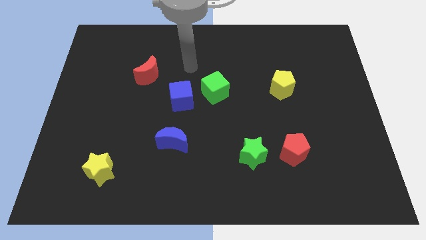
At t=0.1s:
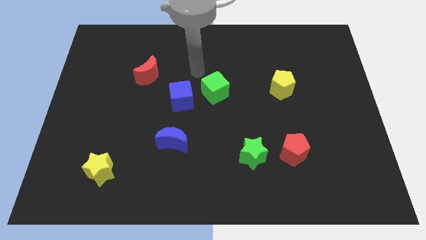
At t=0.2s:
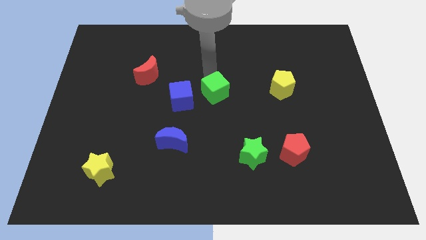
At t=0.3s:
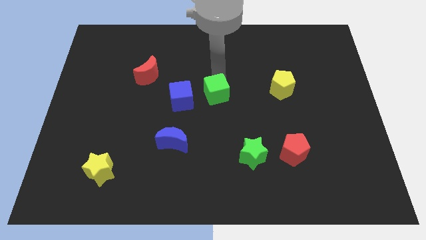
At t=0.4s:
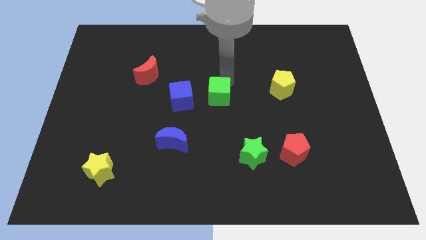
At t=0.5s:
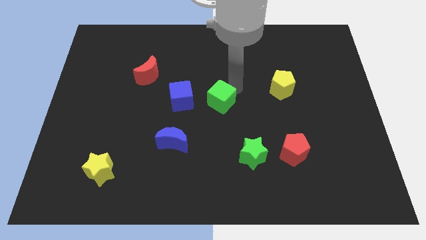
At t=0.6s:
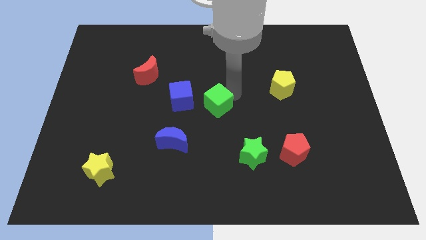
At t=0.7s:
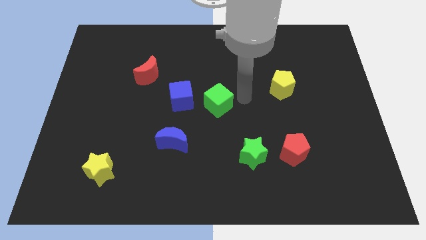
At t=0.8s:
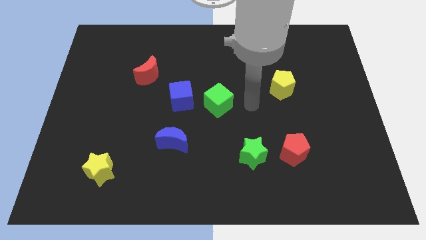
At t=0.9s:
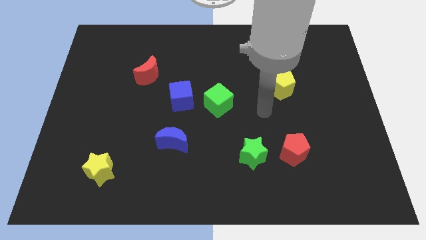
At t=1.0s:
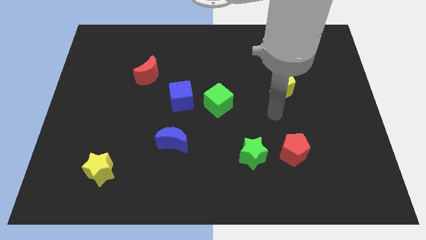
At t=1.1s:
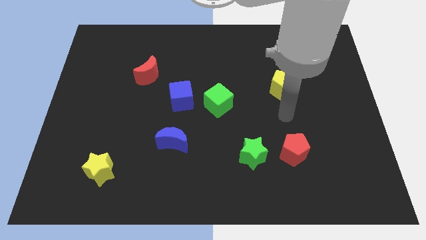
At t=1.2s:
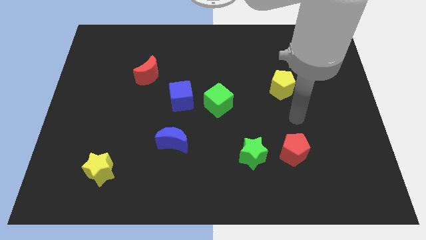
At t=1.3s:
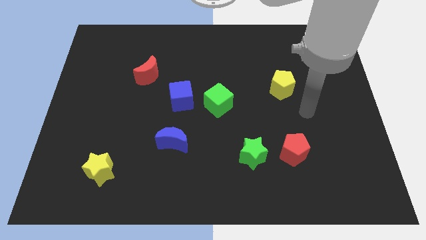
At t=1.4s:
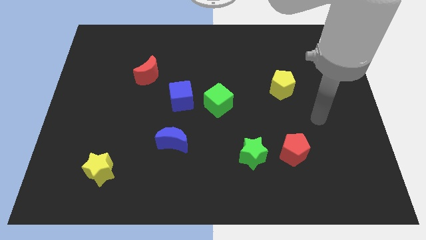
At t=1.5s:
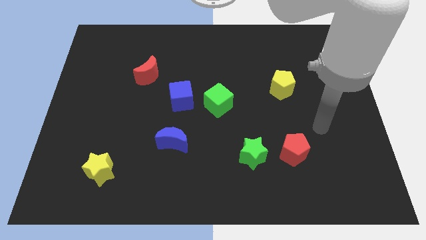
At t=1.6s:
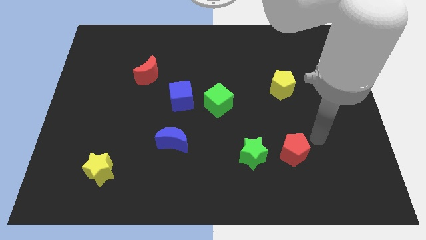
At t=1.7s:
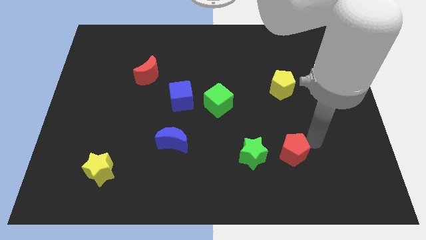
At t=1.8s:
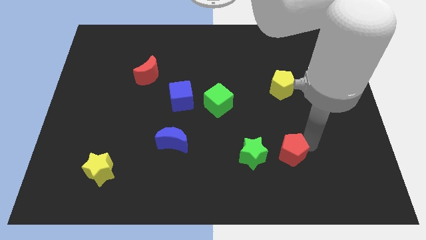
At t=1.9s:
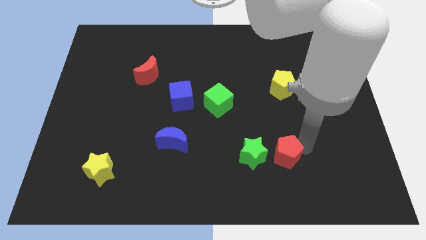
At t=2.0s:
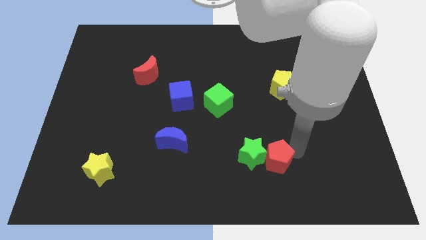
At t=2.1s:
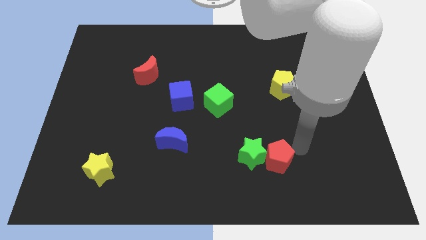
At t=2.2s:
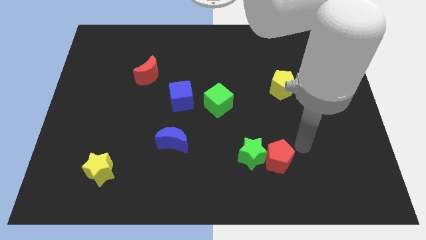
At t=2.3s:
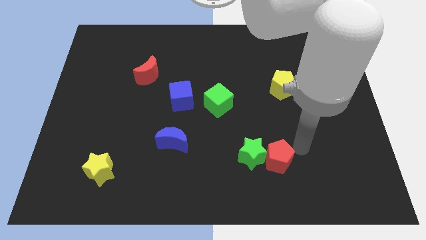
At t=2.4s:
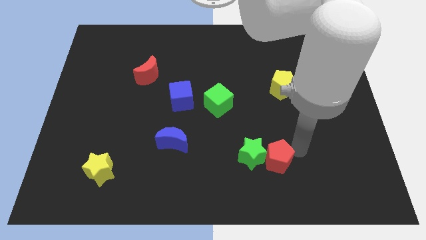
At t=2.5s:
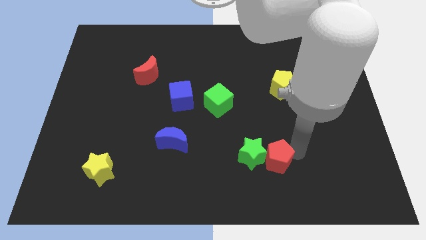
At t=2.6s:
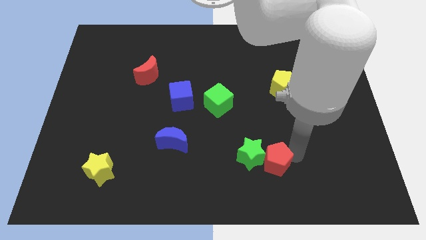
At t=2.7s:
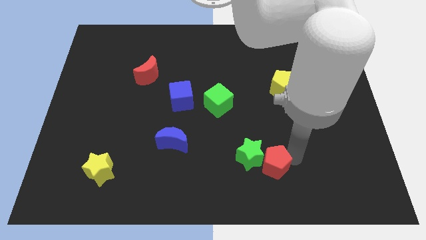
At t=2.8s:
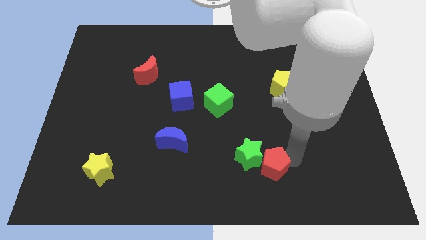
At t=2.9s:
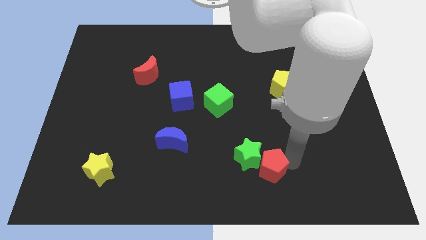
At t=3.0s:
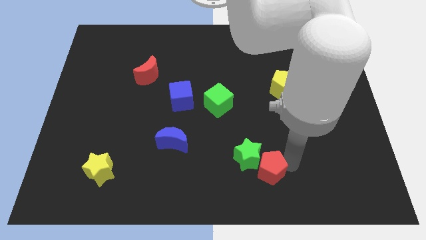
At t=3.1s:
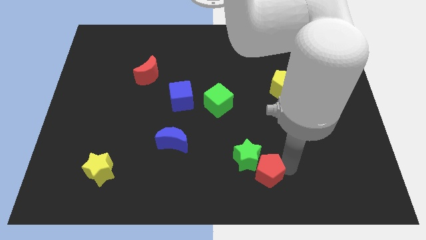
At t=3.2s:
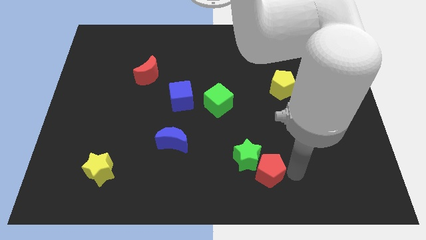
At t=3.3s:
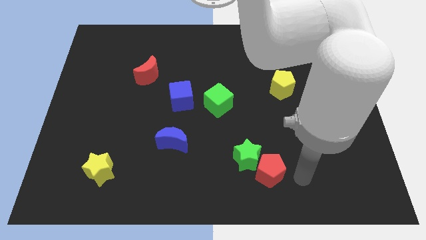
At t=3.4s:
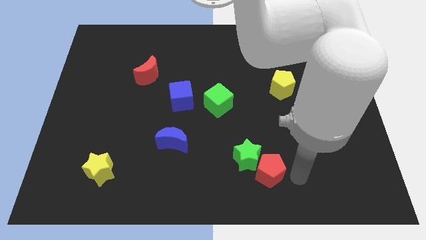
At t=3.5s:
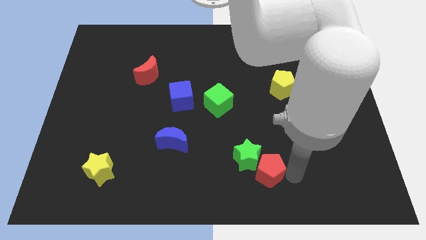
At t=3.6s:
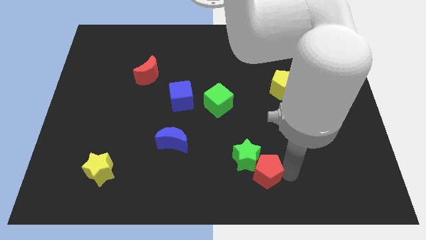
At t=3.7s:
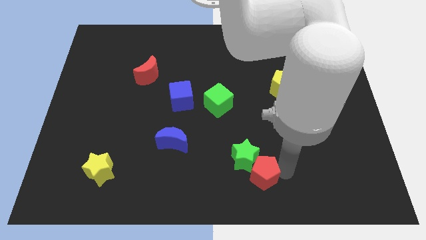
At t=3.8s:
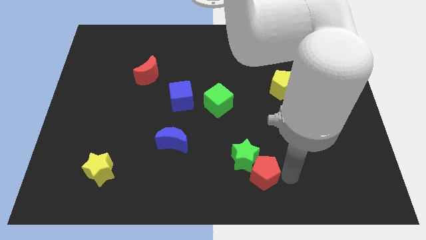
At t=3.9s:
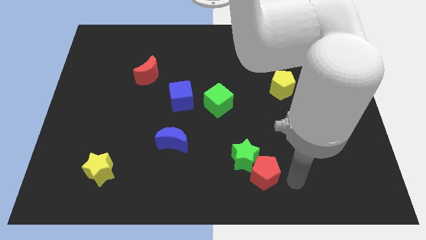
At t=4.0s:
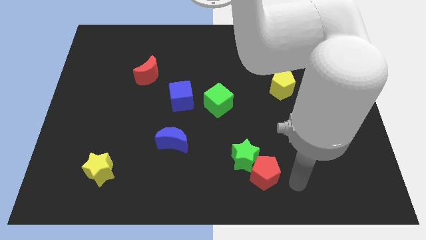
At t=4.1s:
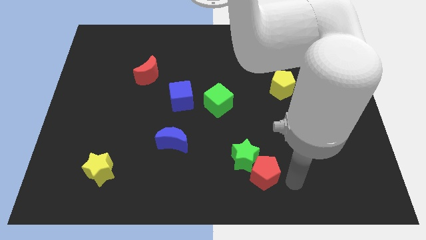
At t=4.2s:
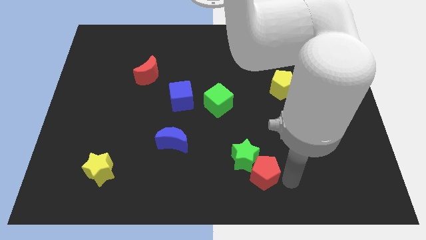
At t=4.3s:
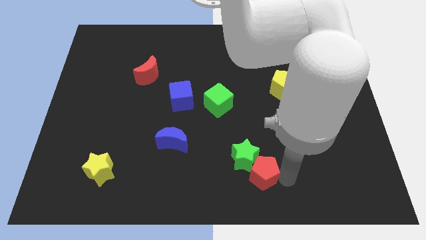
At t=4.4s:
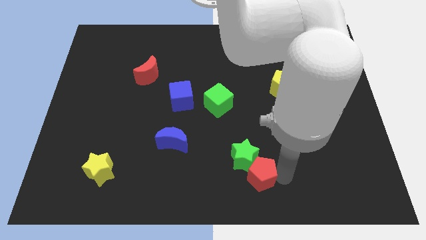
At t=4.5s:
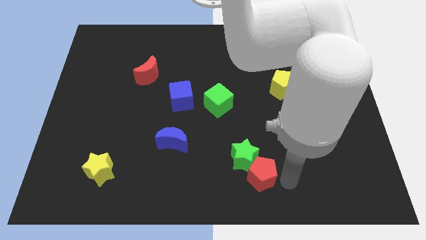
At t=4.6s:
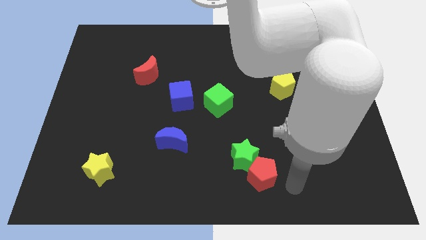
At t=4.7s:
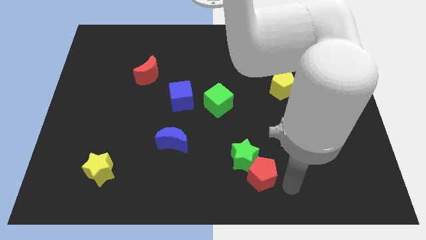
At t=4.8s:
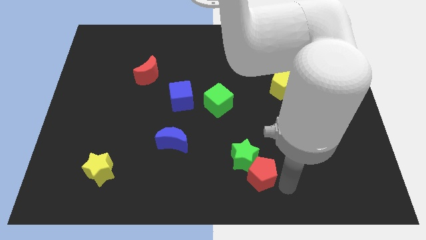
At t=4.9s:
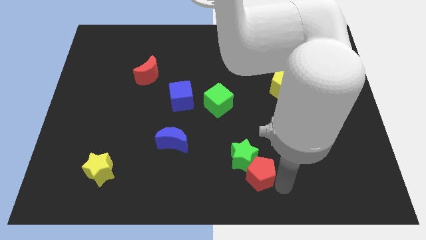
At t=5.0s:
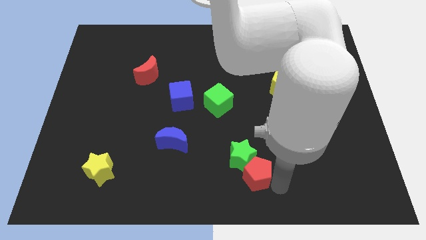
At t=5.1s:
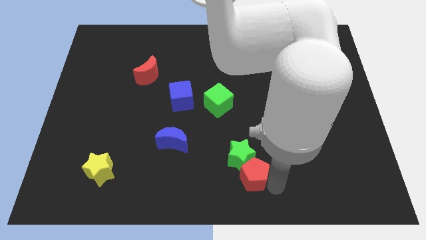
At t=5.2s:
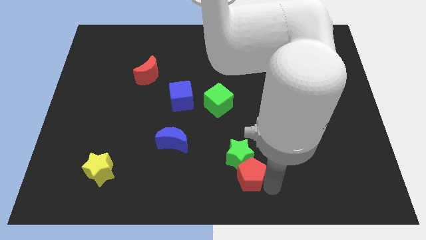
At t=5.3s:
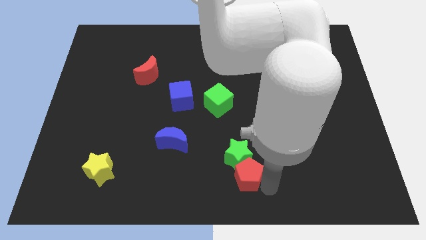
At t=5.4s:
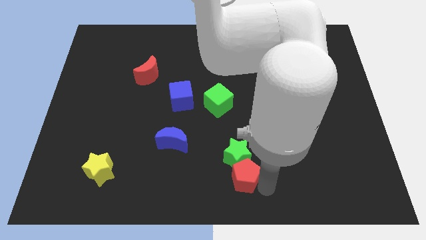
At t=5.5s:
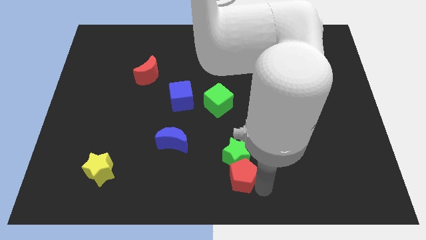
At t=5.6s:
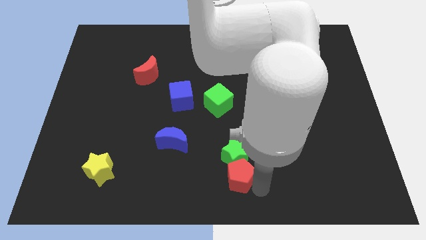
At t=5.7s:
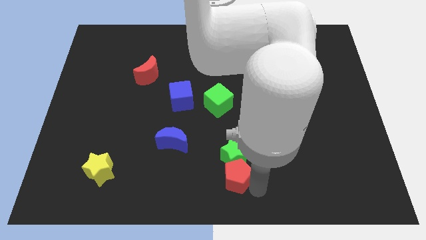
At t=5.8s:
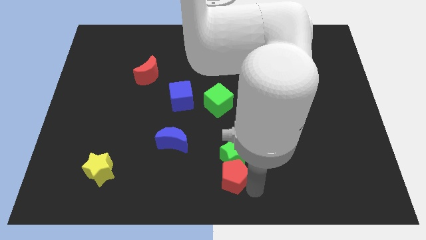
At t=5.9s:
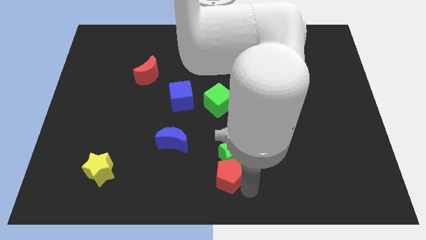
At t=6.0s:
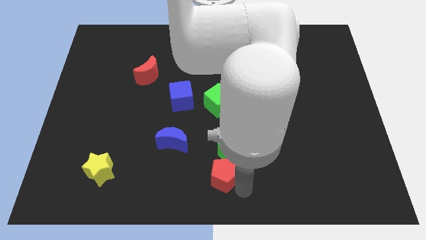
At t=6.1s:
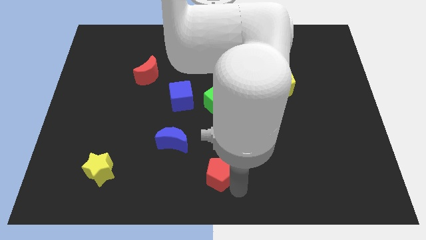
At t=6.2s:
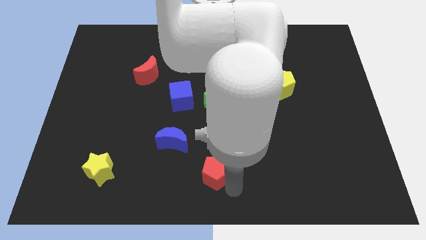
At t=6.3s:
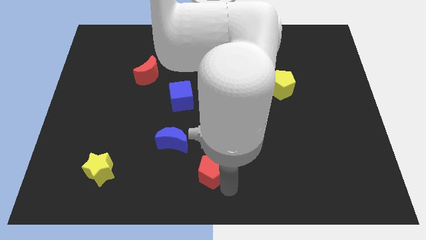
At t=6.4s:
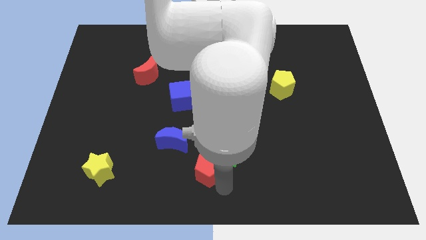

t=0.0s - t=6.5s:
move the red pentagon left of the green star
